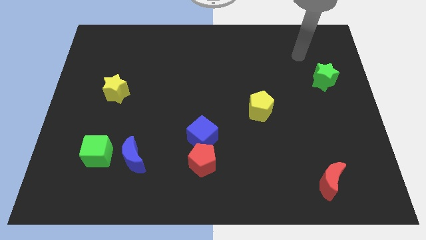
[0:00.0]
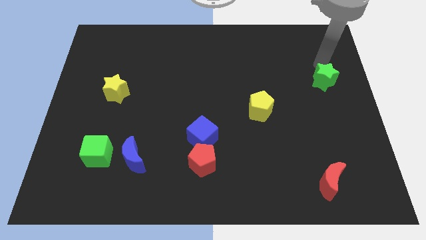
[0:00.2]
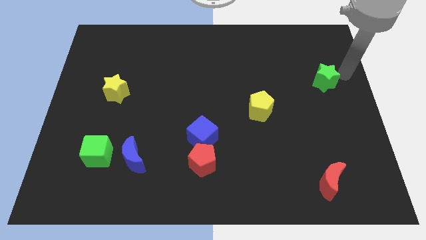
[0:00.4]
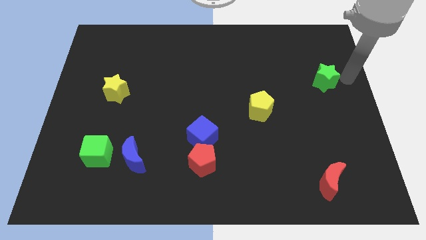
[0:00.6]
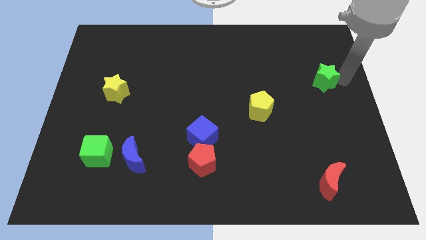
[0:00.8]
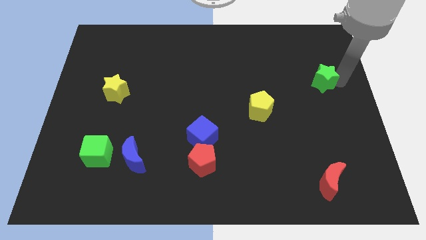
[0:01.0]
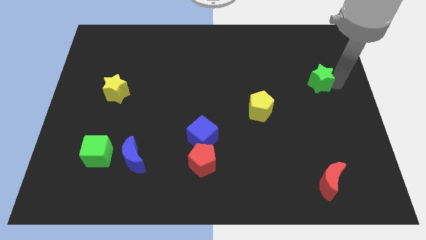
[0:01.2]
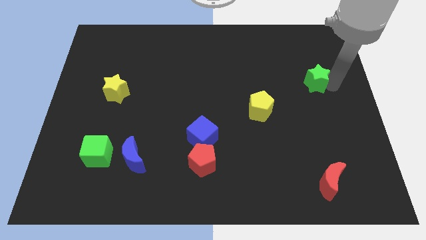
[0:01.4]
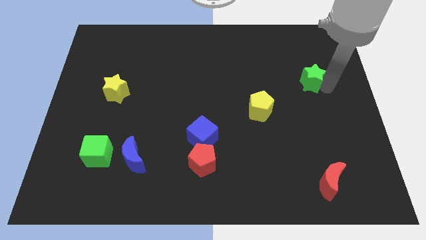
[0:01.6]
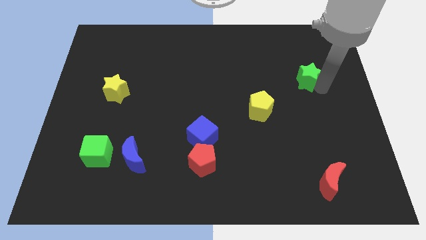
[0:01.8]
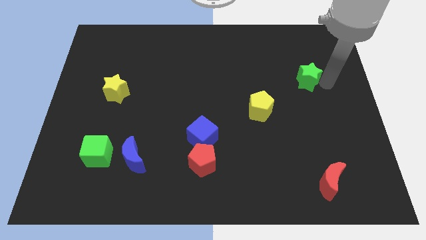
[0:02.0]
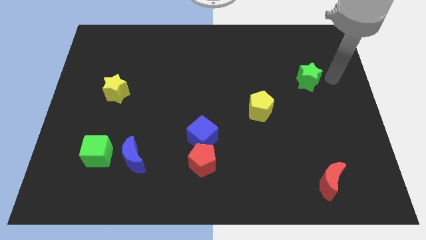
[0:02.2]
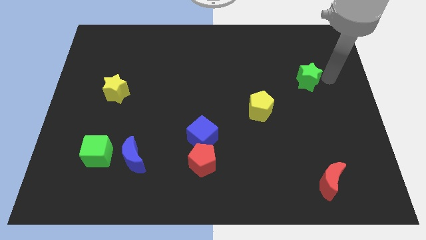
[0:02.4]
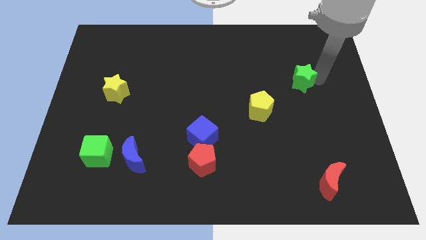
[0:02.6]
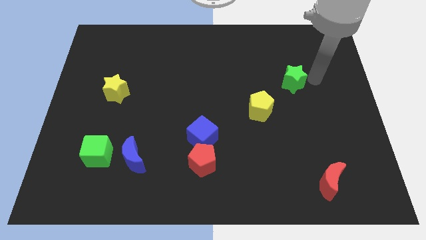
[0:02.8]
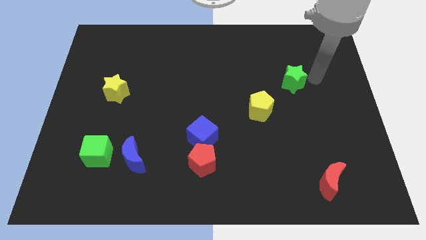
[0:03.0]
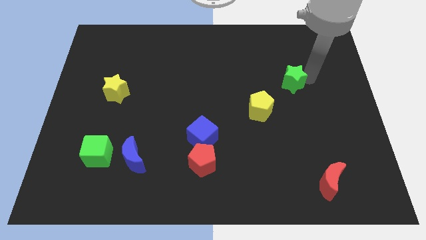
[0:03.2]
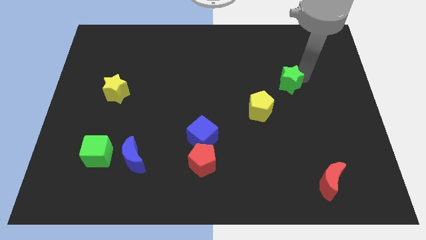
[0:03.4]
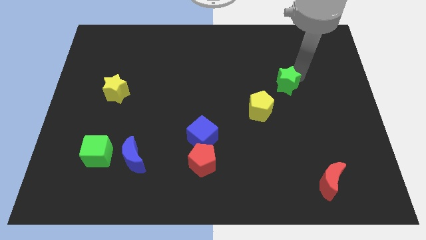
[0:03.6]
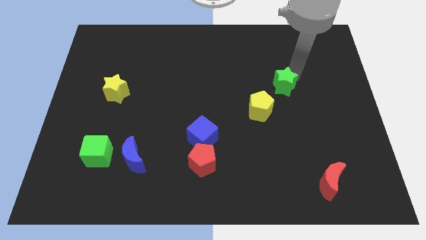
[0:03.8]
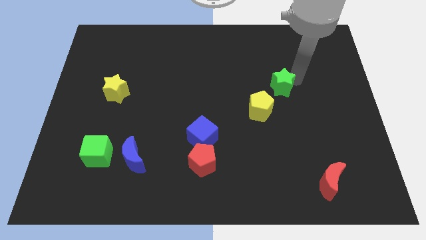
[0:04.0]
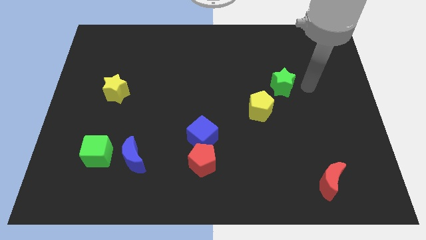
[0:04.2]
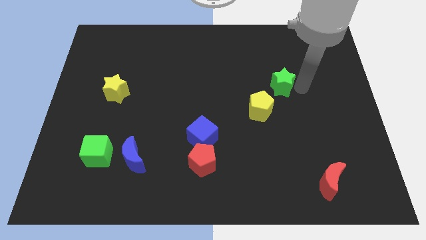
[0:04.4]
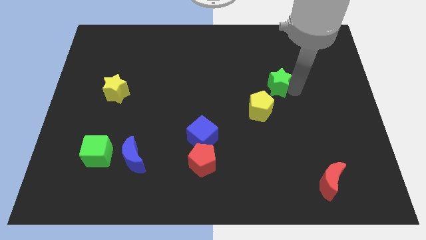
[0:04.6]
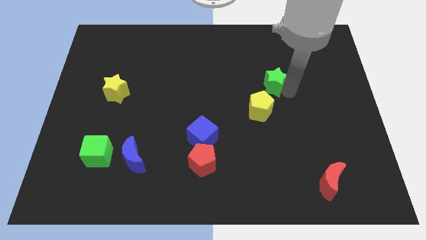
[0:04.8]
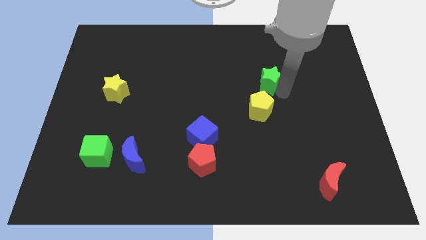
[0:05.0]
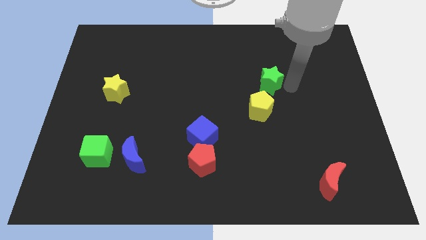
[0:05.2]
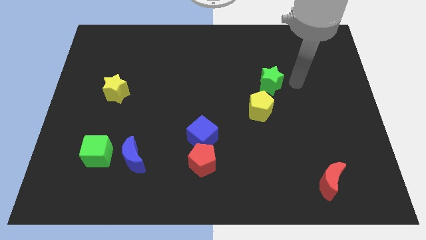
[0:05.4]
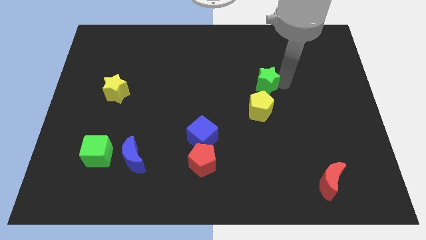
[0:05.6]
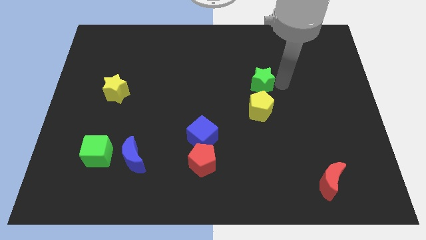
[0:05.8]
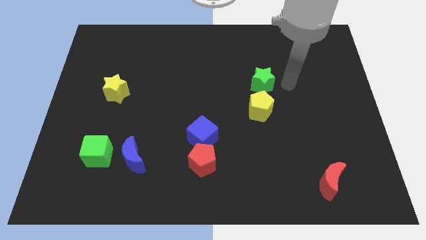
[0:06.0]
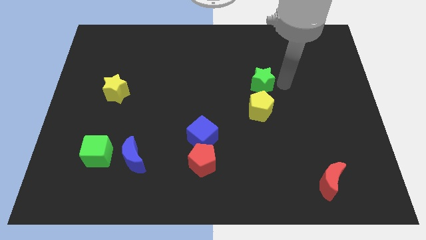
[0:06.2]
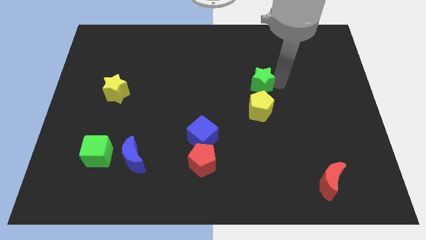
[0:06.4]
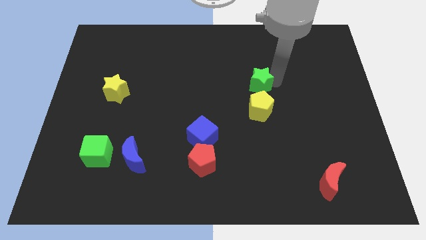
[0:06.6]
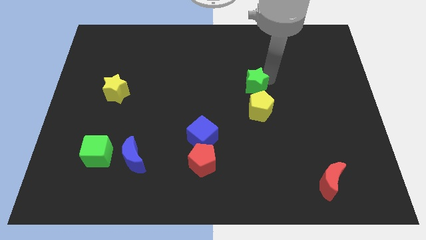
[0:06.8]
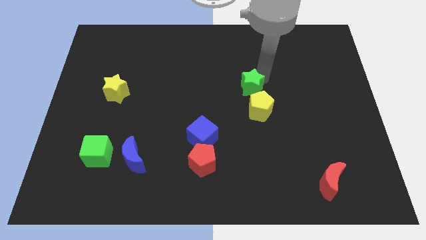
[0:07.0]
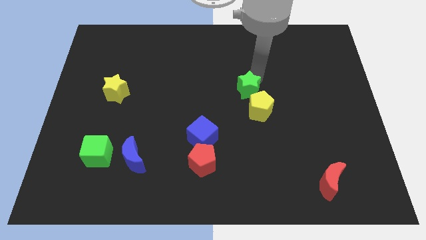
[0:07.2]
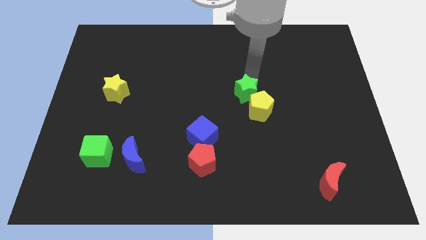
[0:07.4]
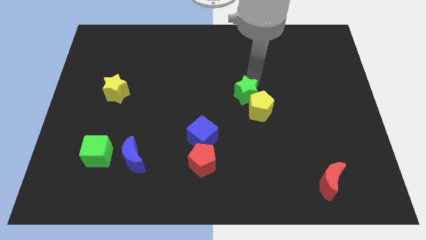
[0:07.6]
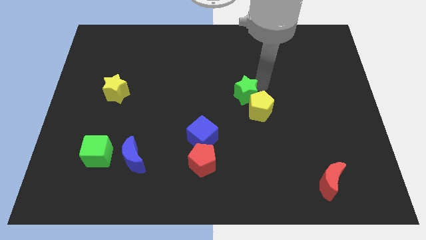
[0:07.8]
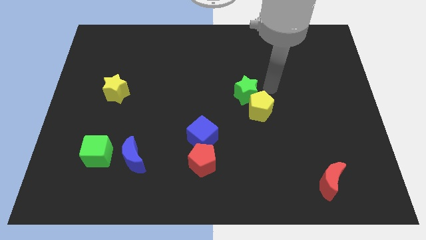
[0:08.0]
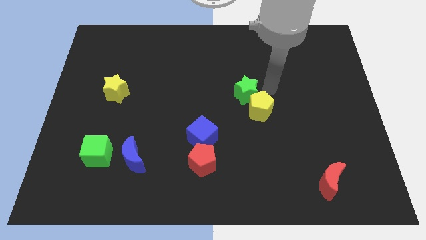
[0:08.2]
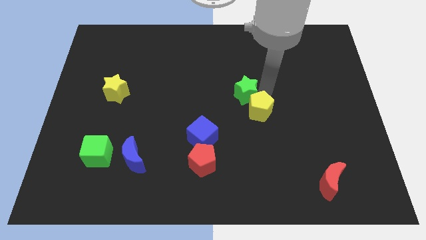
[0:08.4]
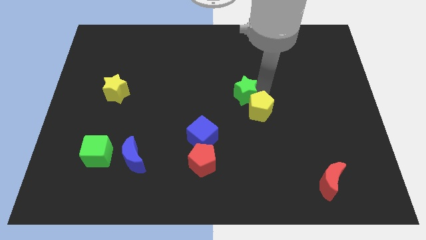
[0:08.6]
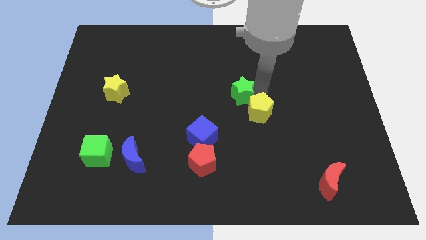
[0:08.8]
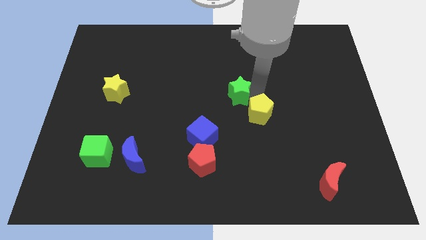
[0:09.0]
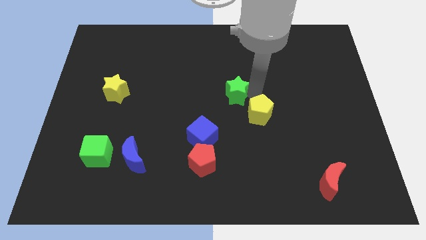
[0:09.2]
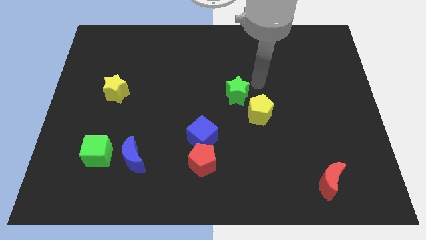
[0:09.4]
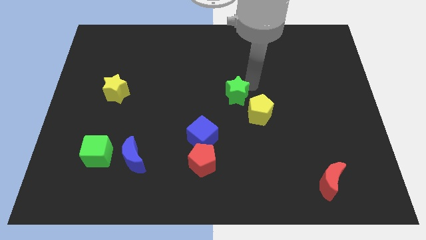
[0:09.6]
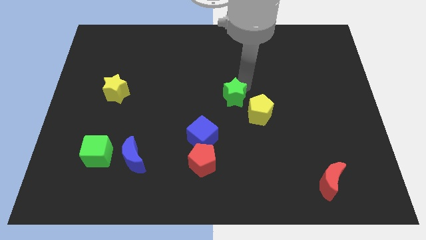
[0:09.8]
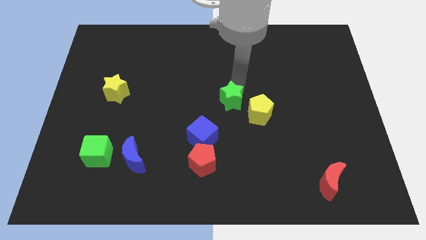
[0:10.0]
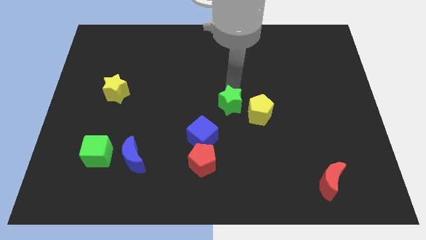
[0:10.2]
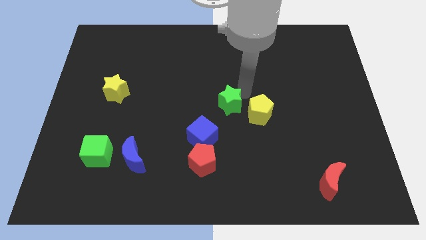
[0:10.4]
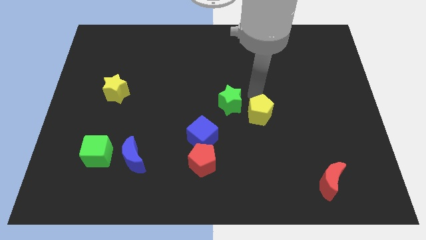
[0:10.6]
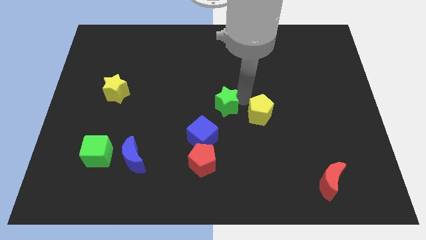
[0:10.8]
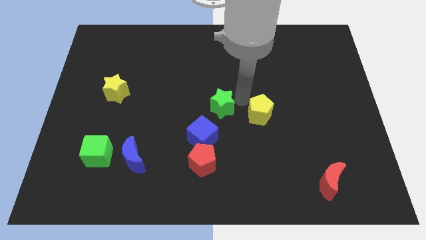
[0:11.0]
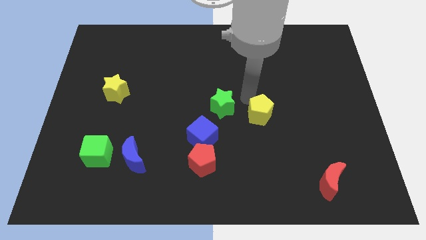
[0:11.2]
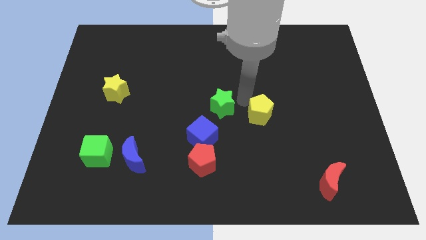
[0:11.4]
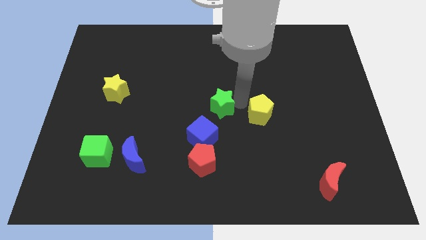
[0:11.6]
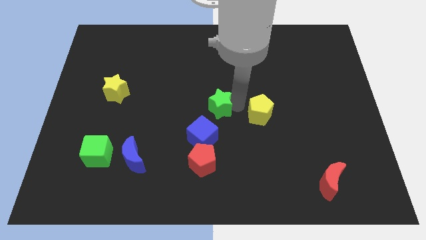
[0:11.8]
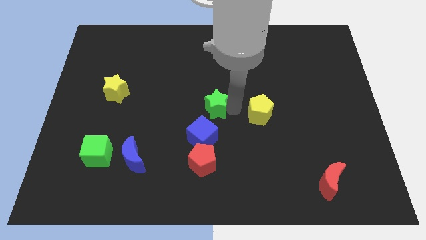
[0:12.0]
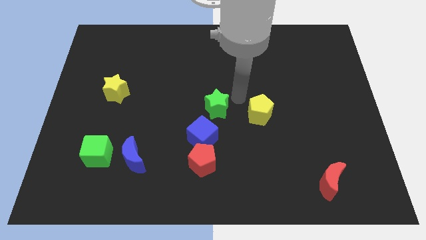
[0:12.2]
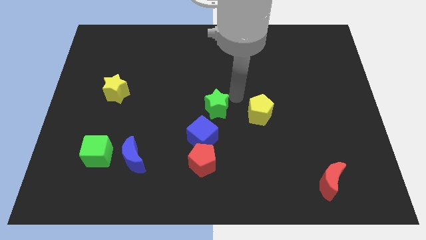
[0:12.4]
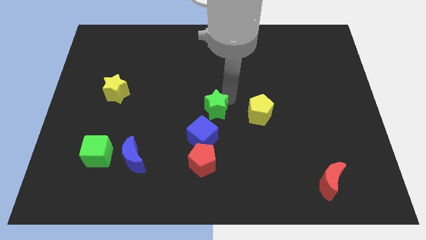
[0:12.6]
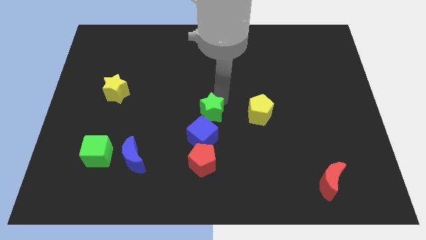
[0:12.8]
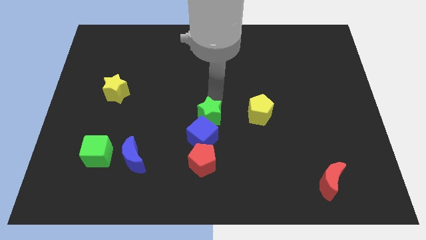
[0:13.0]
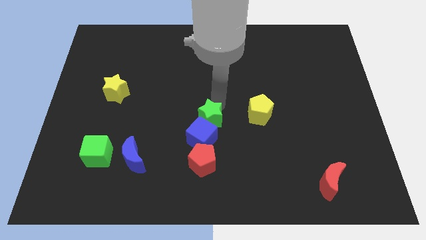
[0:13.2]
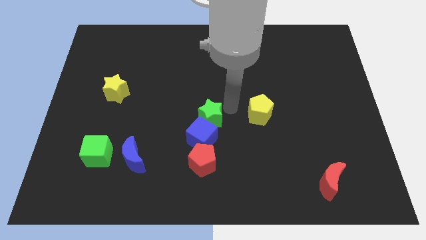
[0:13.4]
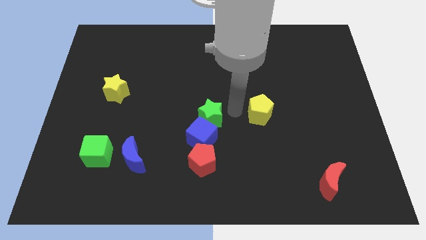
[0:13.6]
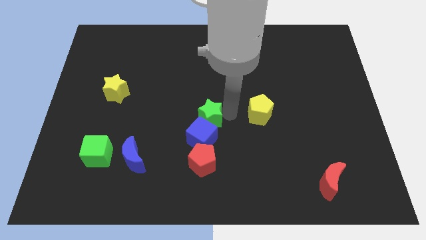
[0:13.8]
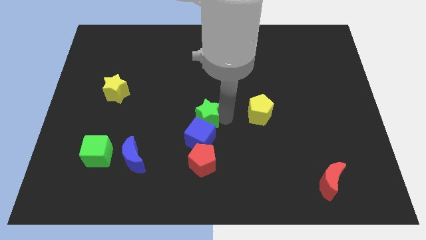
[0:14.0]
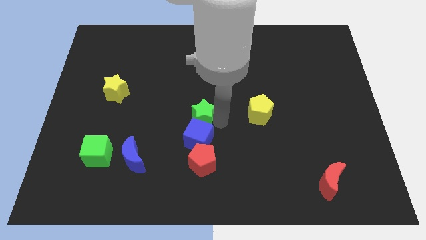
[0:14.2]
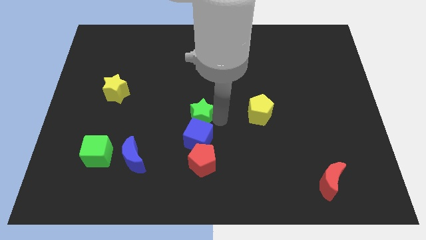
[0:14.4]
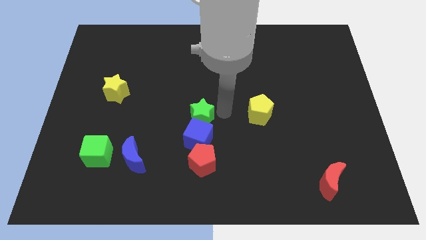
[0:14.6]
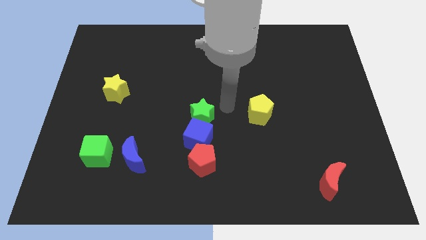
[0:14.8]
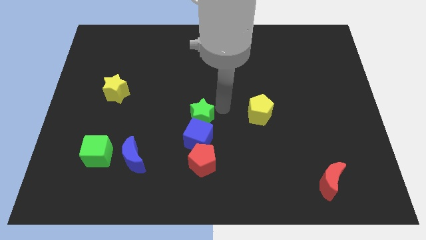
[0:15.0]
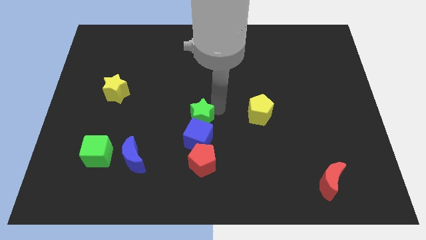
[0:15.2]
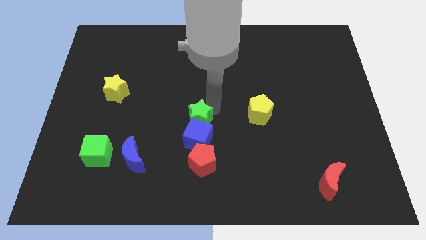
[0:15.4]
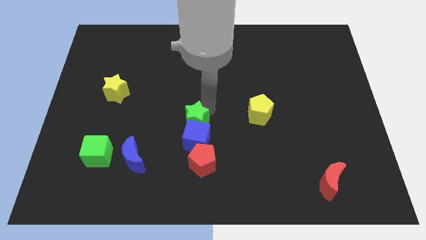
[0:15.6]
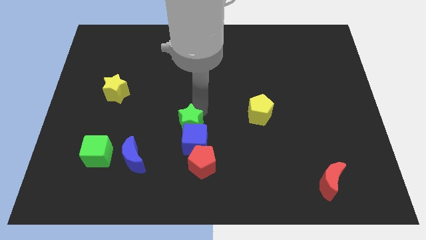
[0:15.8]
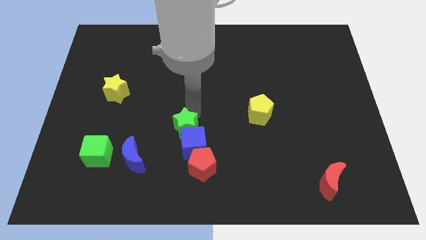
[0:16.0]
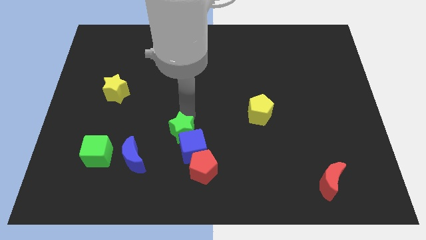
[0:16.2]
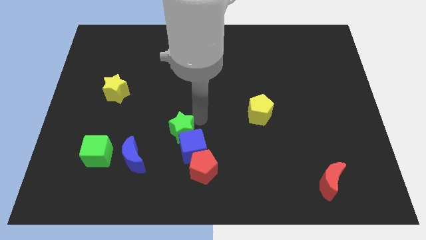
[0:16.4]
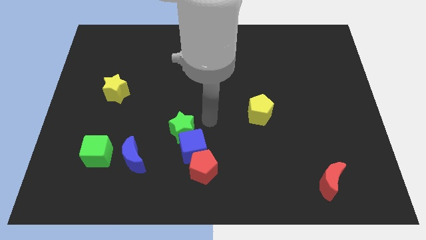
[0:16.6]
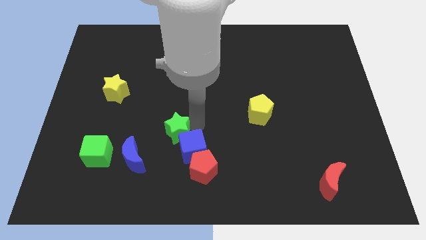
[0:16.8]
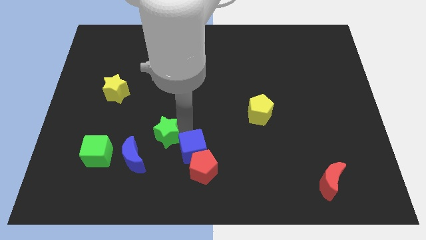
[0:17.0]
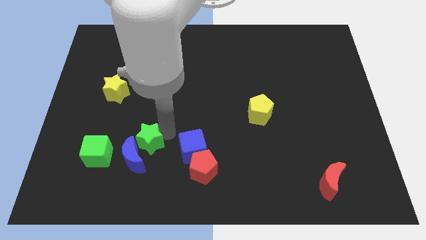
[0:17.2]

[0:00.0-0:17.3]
move the green star close to the blue moon
